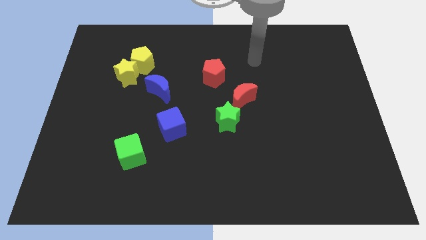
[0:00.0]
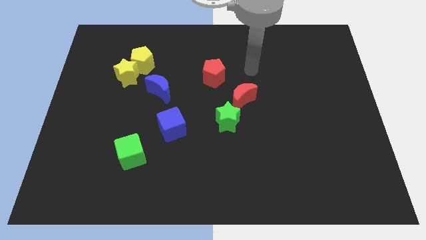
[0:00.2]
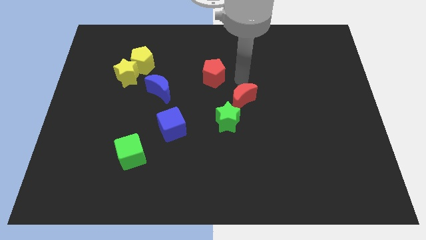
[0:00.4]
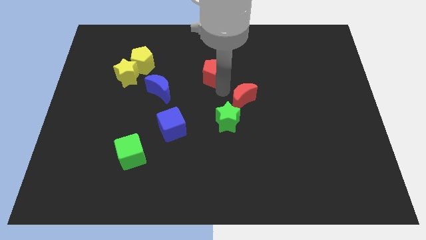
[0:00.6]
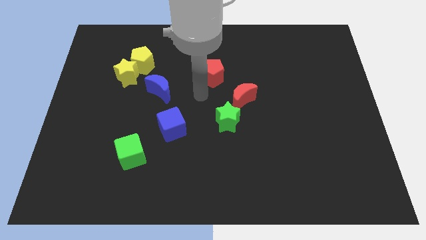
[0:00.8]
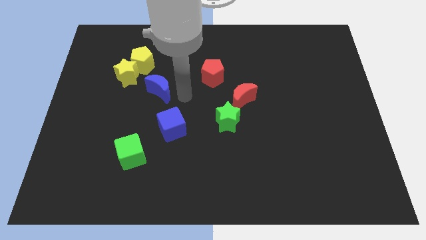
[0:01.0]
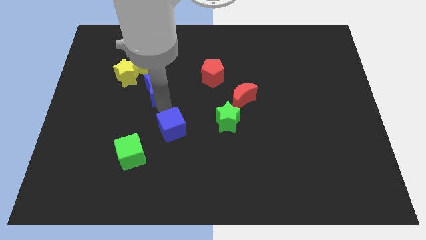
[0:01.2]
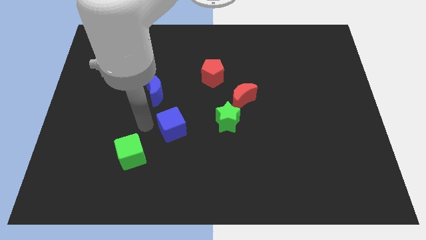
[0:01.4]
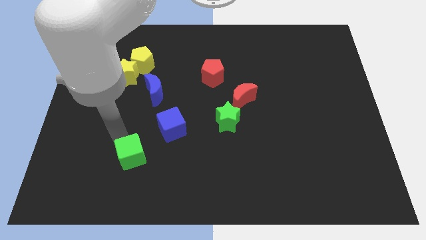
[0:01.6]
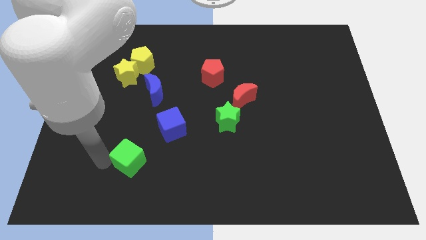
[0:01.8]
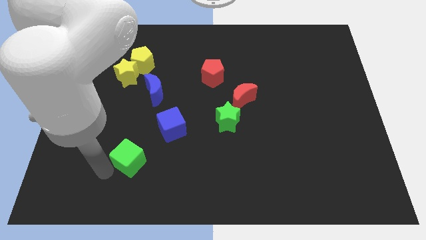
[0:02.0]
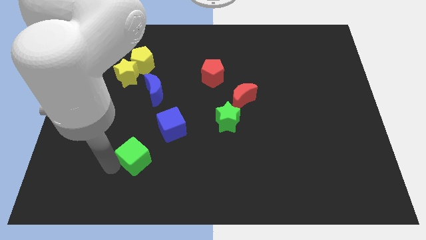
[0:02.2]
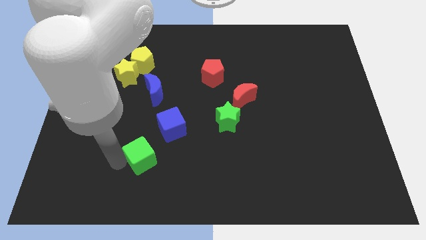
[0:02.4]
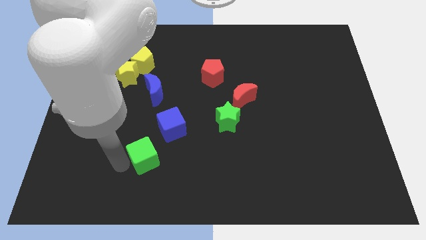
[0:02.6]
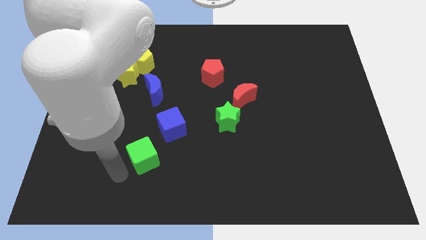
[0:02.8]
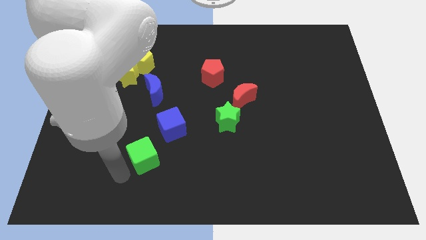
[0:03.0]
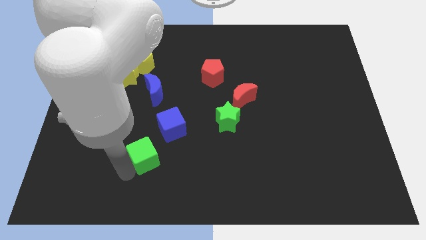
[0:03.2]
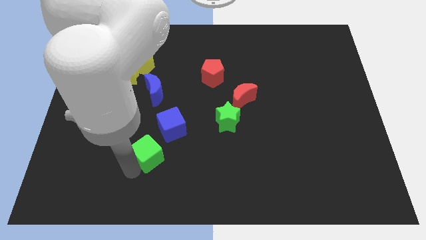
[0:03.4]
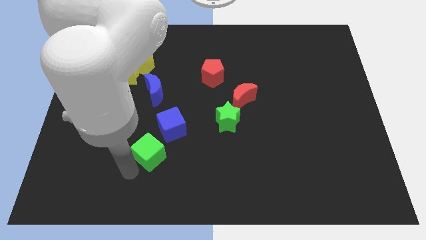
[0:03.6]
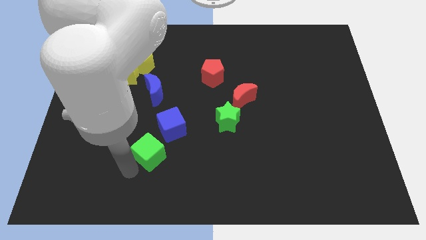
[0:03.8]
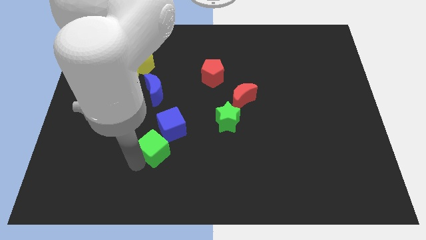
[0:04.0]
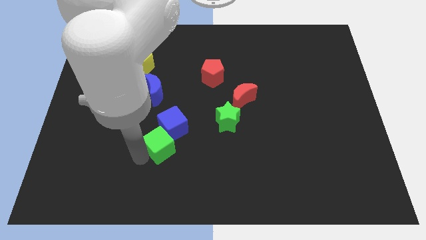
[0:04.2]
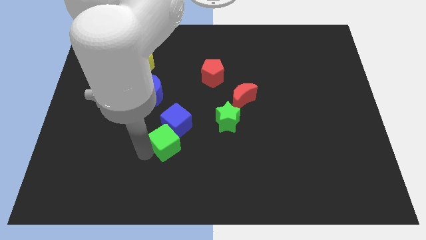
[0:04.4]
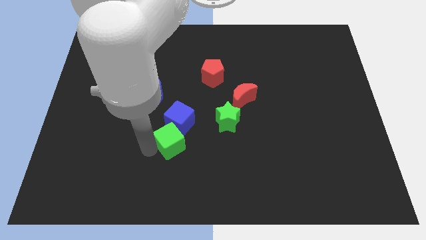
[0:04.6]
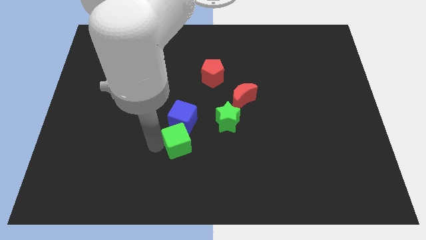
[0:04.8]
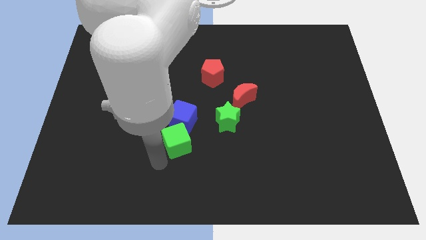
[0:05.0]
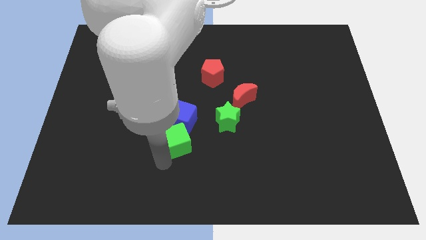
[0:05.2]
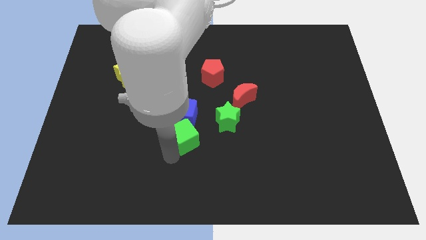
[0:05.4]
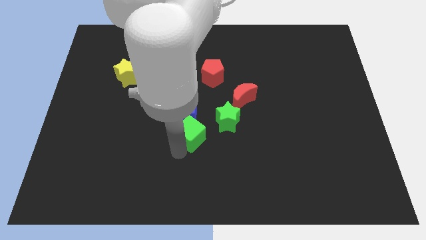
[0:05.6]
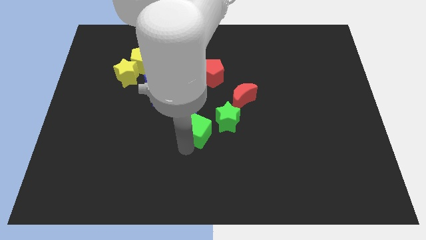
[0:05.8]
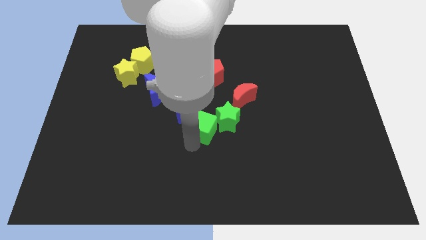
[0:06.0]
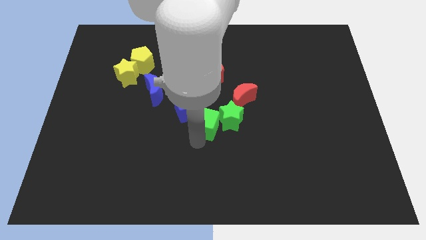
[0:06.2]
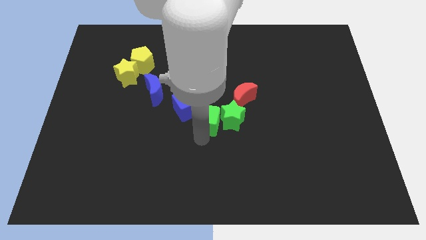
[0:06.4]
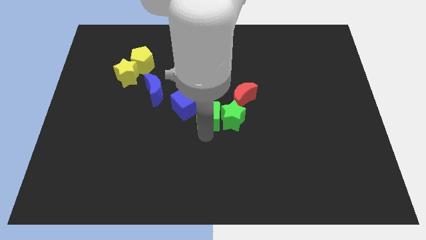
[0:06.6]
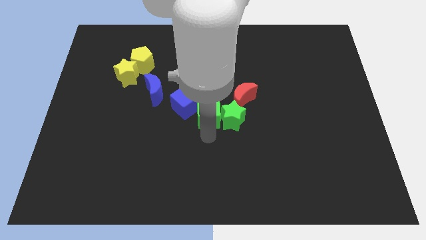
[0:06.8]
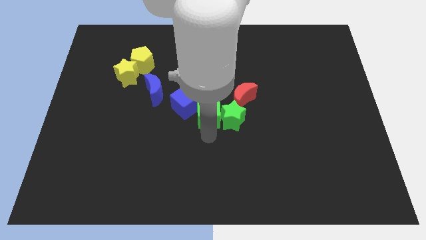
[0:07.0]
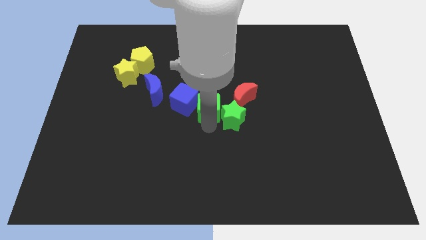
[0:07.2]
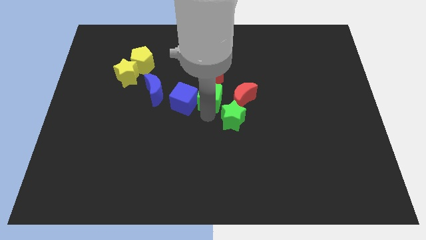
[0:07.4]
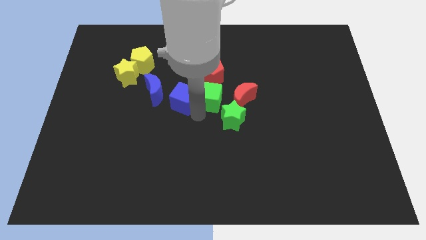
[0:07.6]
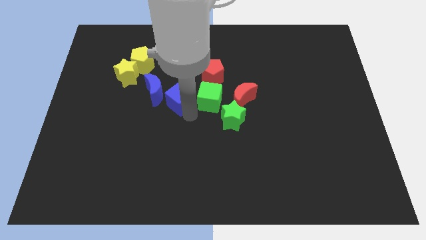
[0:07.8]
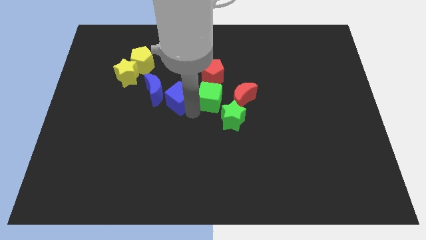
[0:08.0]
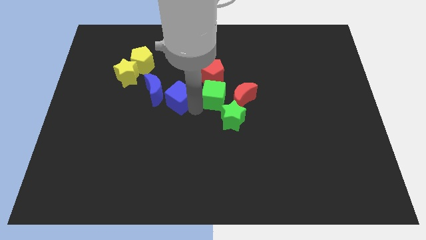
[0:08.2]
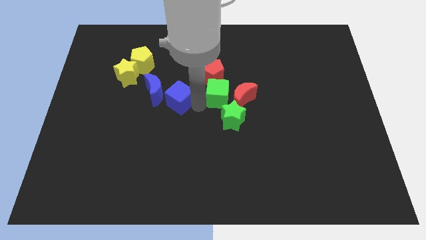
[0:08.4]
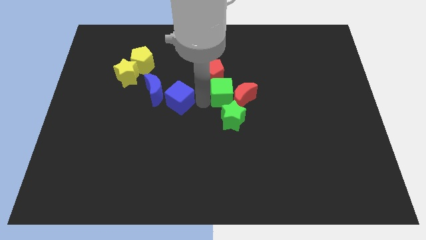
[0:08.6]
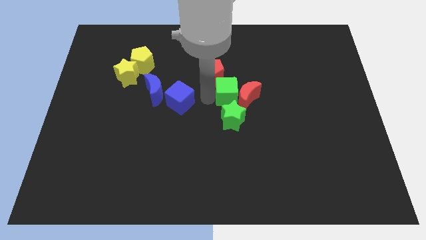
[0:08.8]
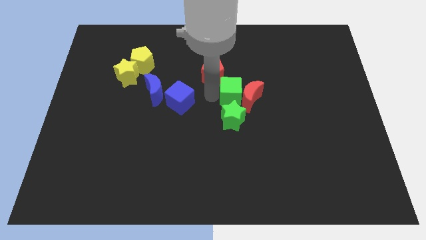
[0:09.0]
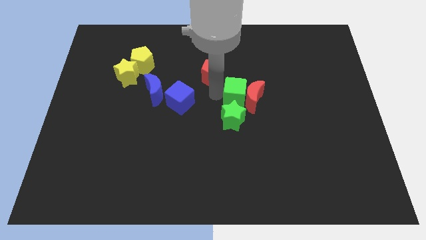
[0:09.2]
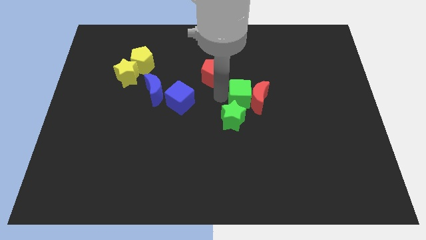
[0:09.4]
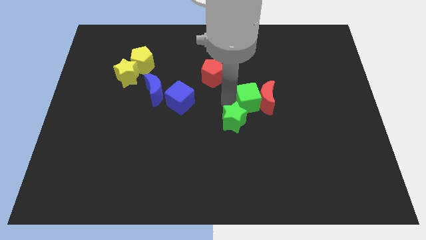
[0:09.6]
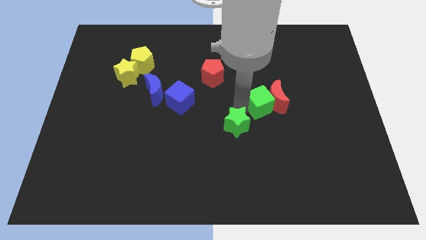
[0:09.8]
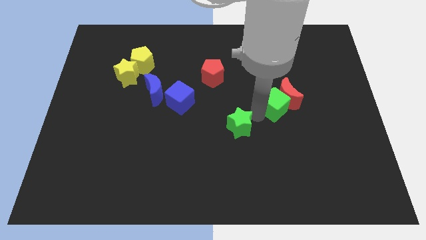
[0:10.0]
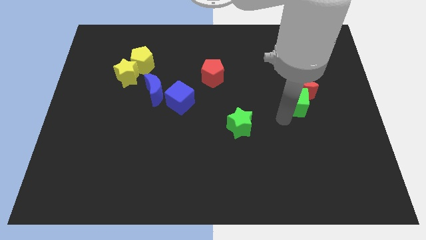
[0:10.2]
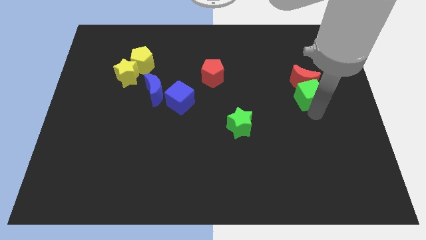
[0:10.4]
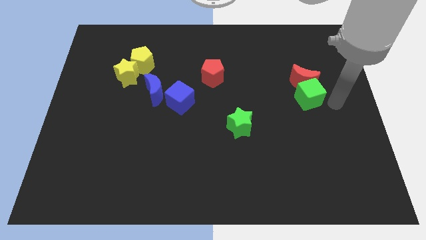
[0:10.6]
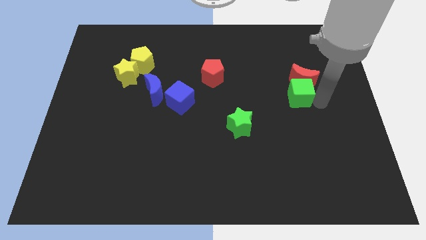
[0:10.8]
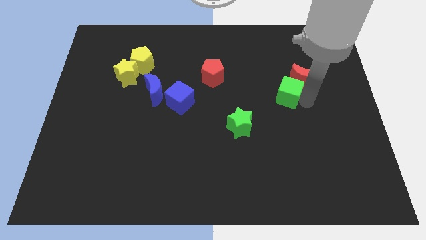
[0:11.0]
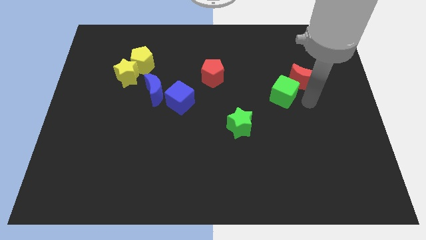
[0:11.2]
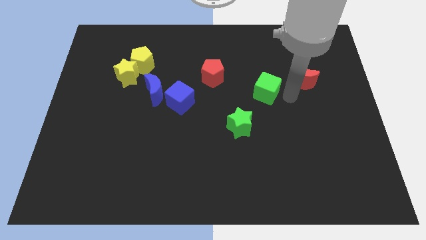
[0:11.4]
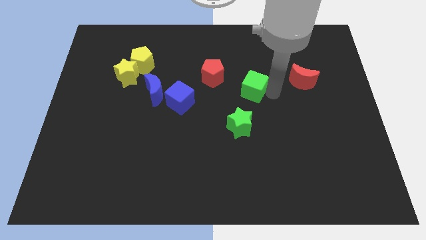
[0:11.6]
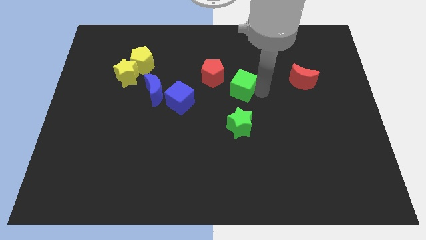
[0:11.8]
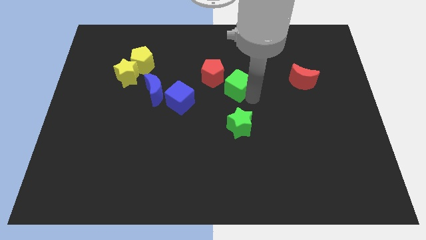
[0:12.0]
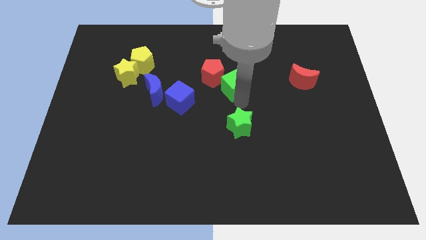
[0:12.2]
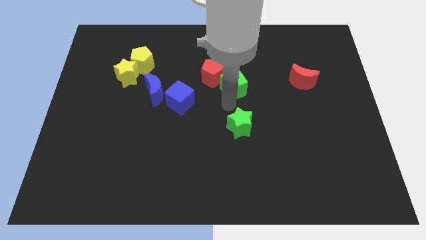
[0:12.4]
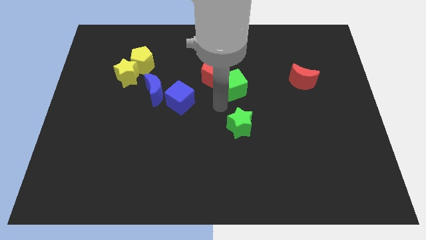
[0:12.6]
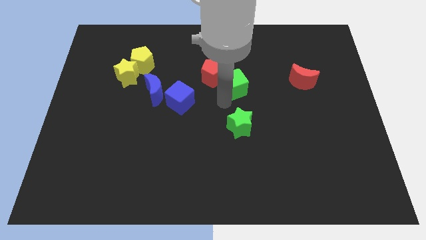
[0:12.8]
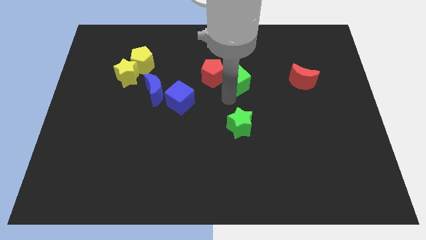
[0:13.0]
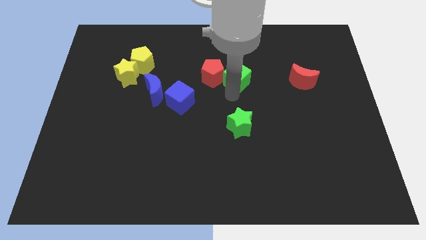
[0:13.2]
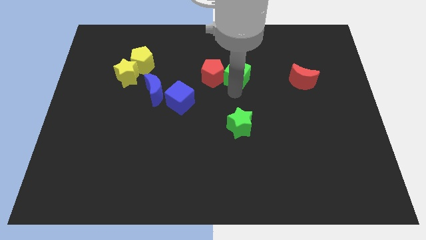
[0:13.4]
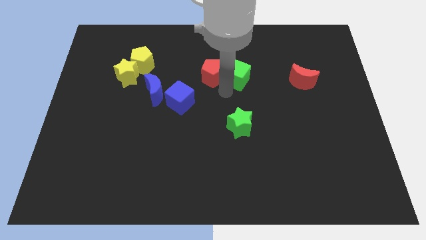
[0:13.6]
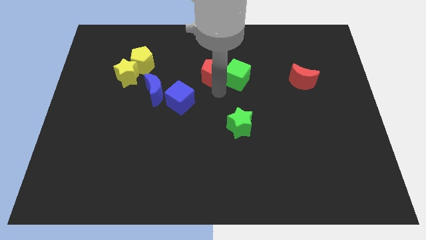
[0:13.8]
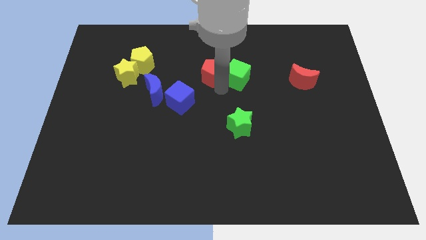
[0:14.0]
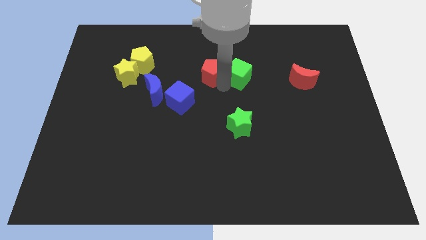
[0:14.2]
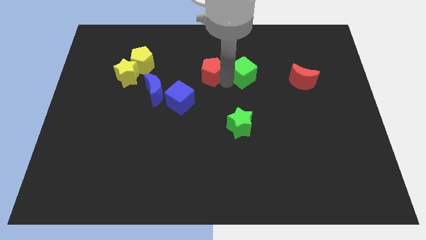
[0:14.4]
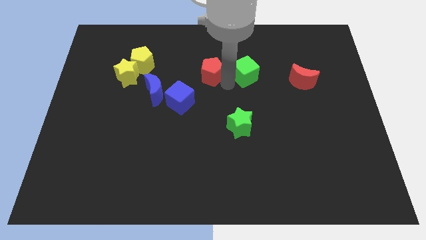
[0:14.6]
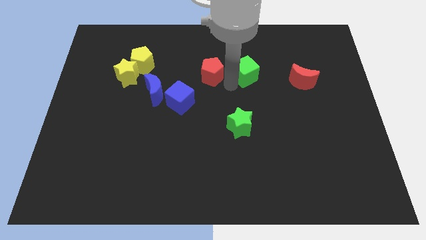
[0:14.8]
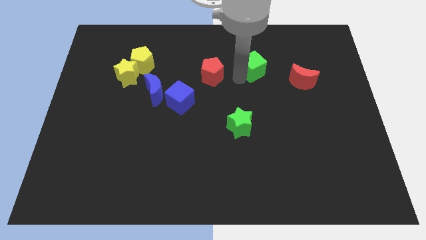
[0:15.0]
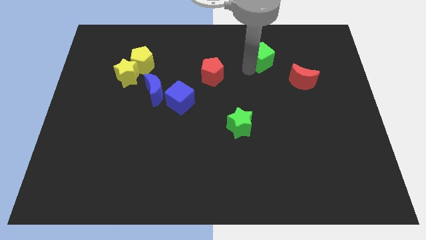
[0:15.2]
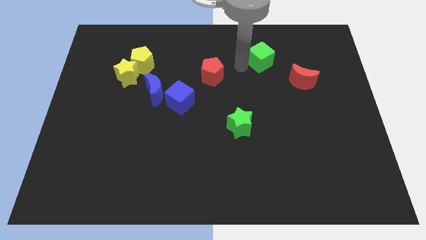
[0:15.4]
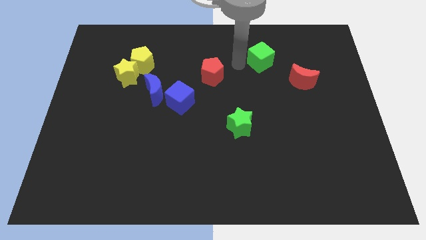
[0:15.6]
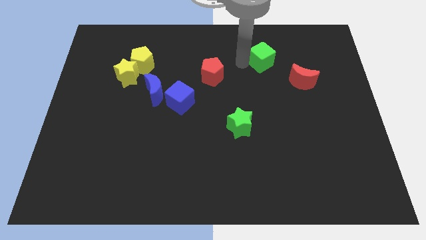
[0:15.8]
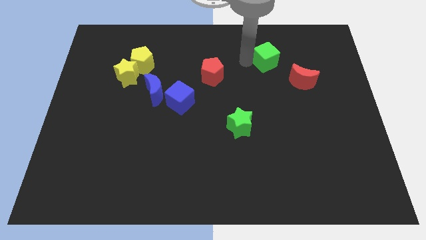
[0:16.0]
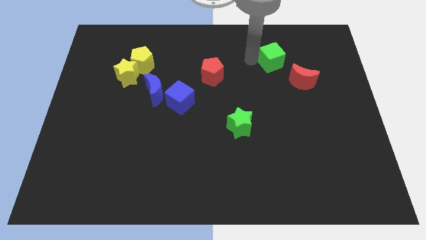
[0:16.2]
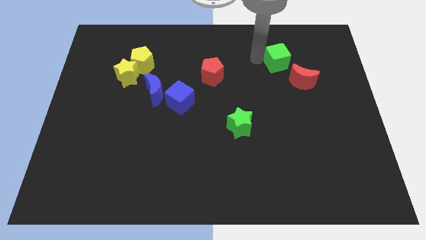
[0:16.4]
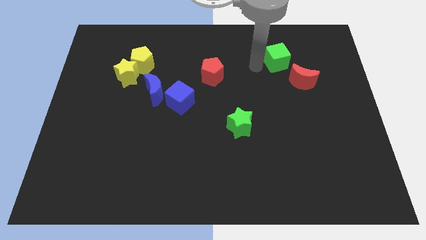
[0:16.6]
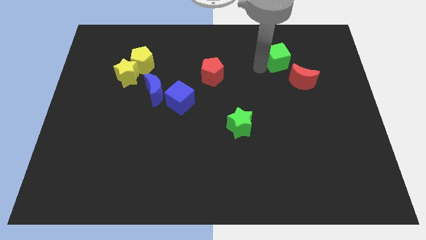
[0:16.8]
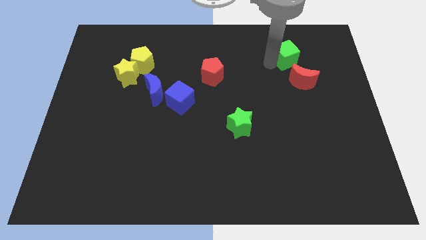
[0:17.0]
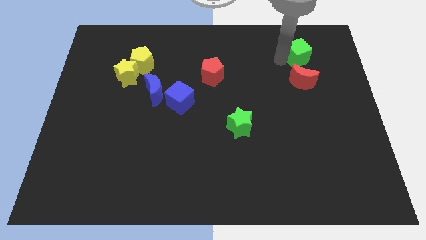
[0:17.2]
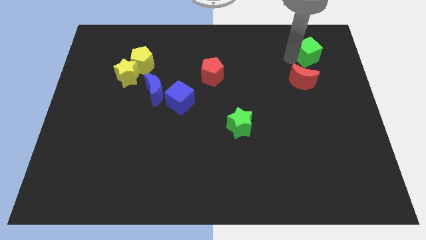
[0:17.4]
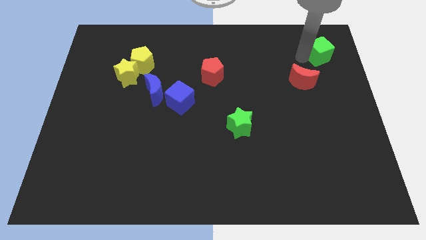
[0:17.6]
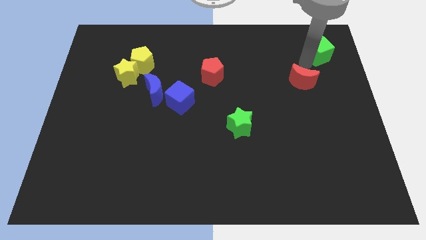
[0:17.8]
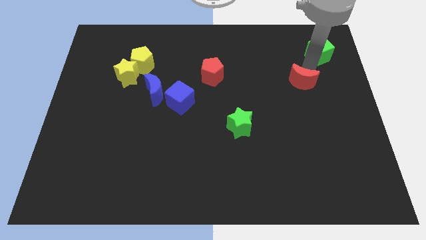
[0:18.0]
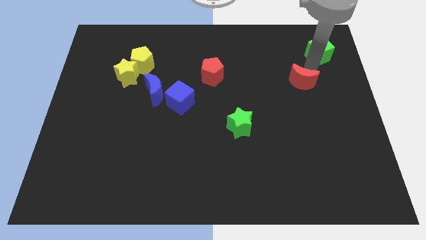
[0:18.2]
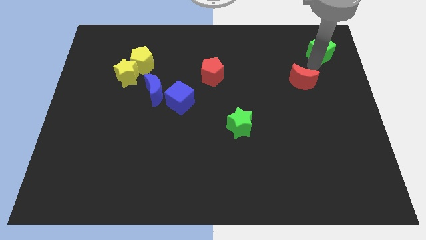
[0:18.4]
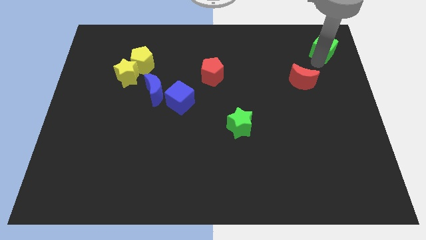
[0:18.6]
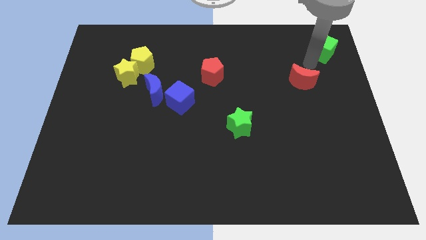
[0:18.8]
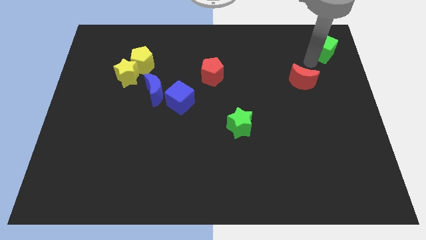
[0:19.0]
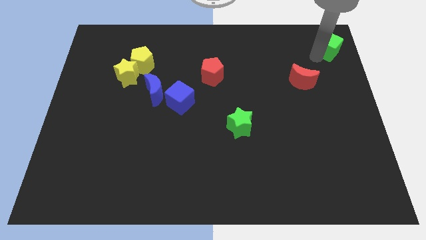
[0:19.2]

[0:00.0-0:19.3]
push the green cube to the upper right corner
